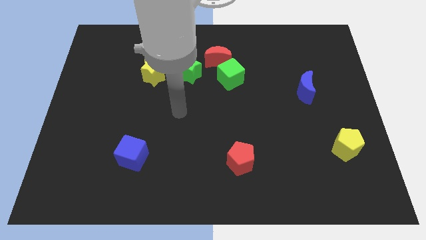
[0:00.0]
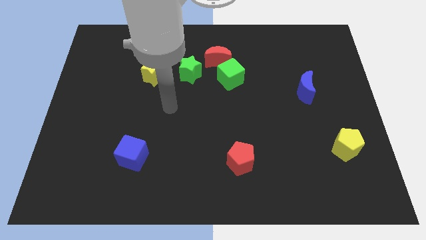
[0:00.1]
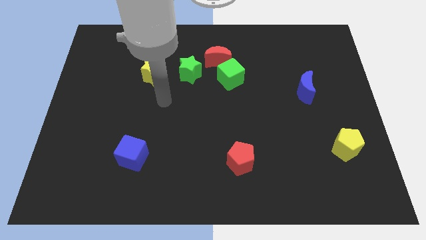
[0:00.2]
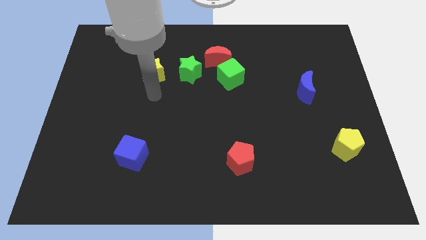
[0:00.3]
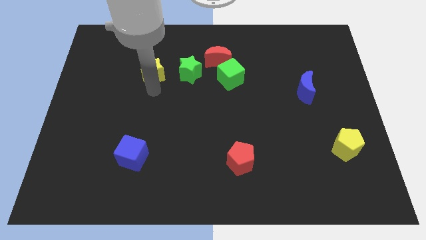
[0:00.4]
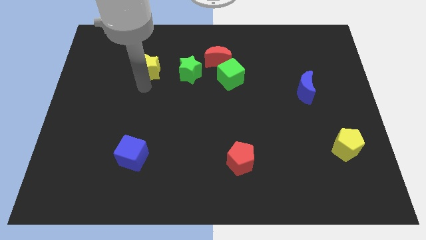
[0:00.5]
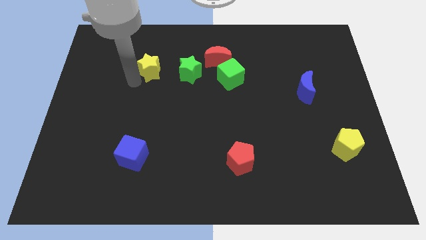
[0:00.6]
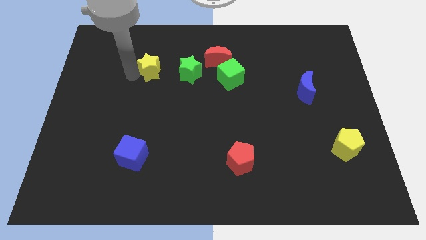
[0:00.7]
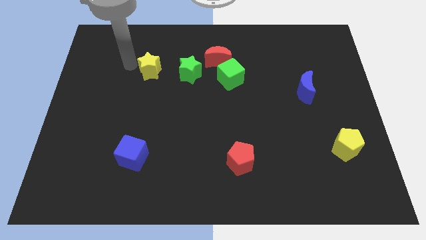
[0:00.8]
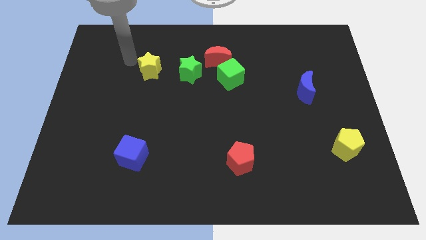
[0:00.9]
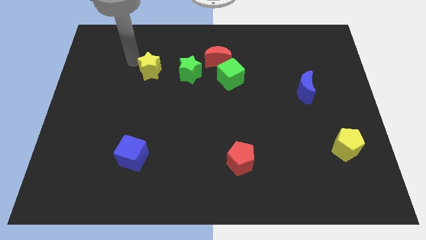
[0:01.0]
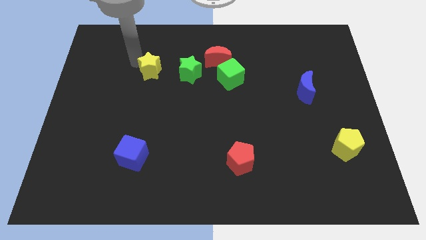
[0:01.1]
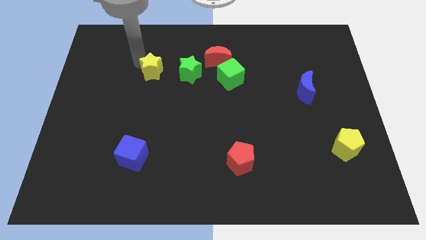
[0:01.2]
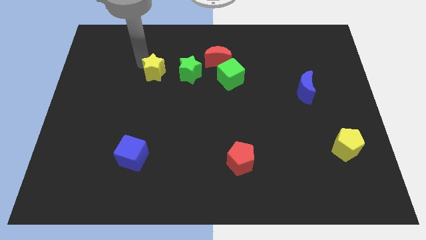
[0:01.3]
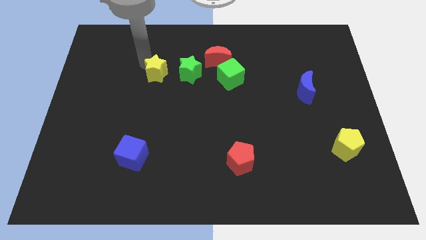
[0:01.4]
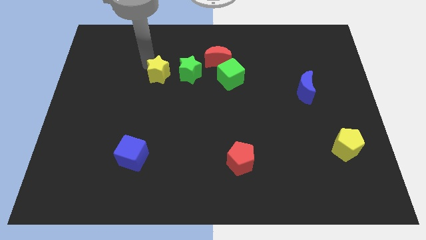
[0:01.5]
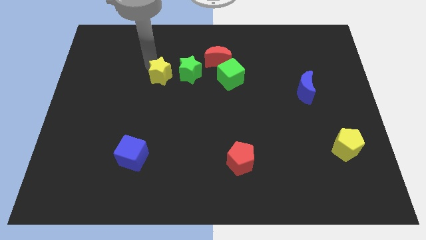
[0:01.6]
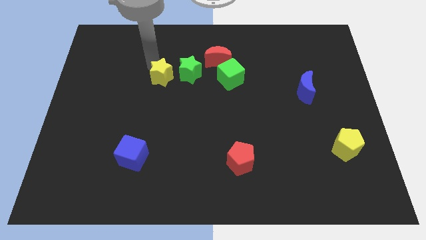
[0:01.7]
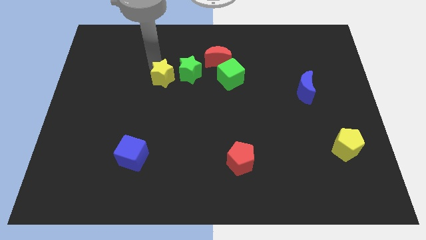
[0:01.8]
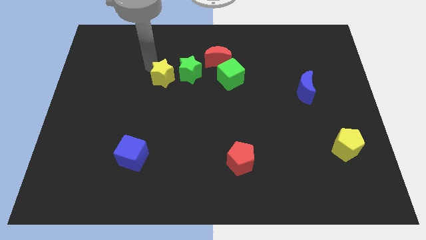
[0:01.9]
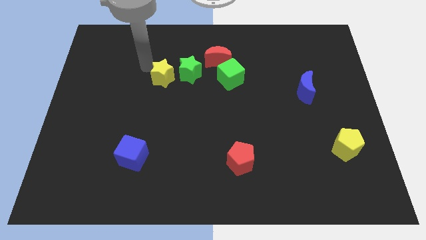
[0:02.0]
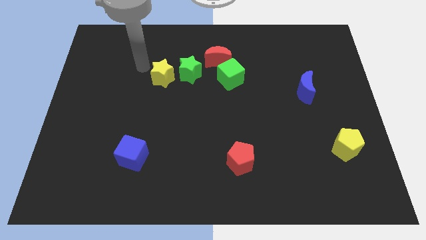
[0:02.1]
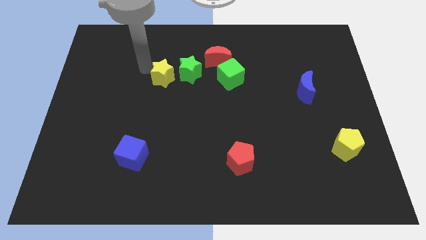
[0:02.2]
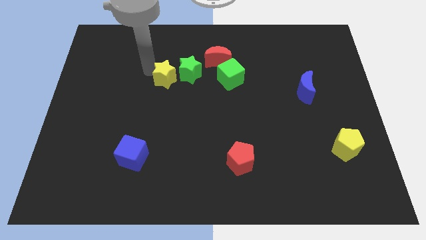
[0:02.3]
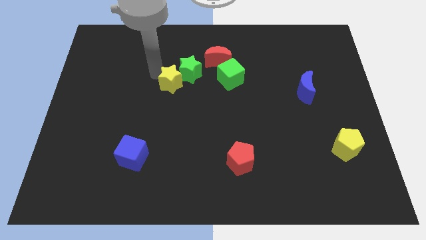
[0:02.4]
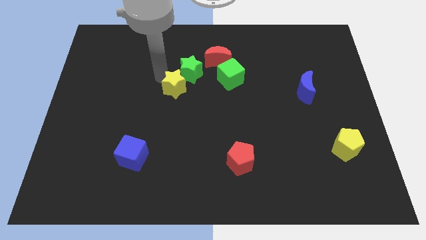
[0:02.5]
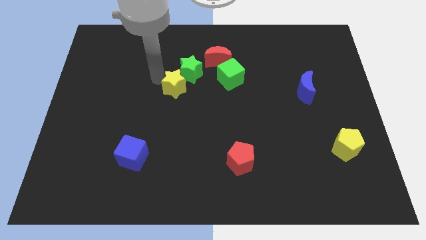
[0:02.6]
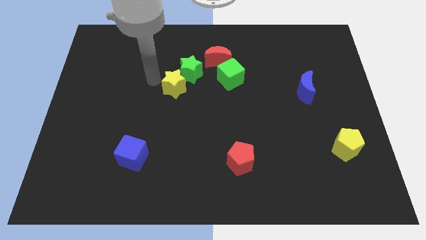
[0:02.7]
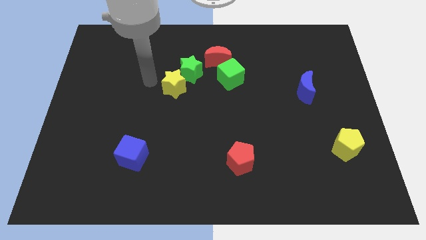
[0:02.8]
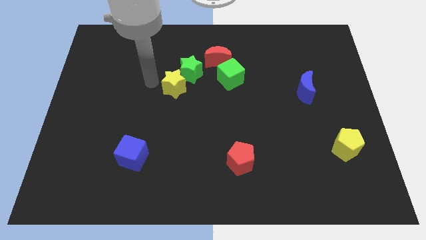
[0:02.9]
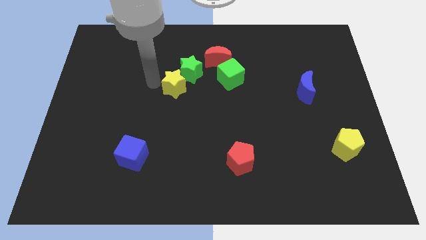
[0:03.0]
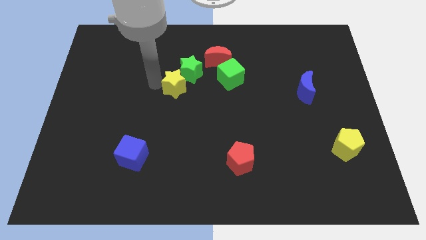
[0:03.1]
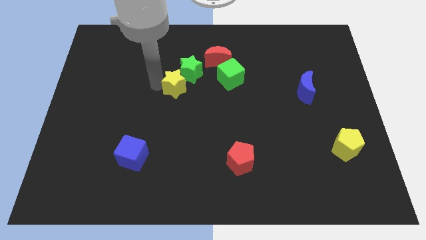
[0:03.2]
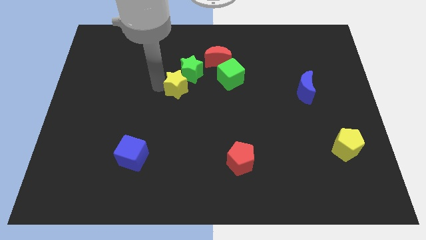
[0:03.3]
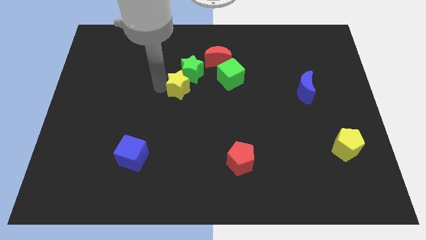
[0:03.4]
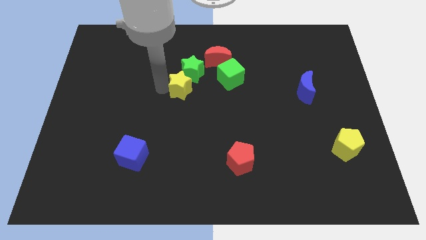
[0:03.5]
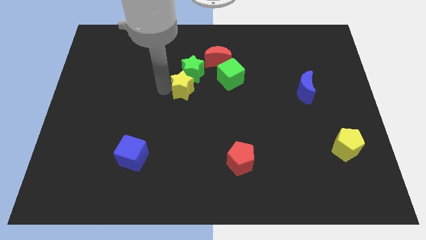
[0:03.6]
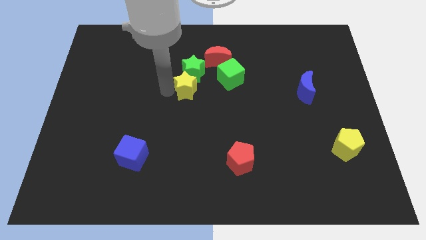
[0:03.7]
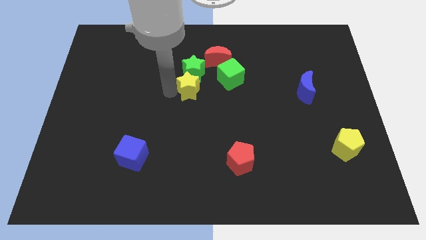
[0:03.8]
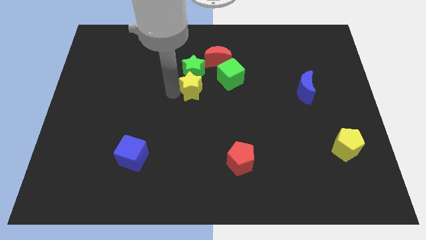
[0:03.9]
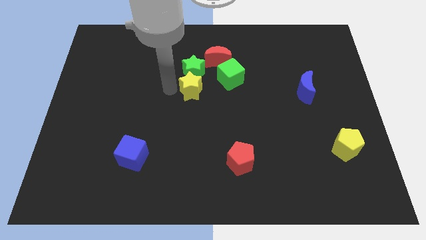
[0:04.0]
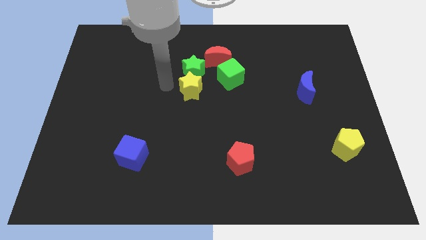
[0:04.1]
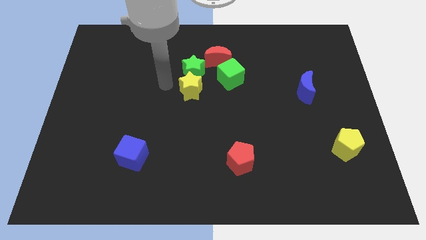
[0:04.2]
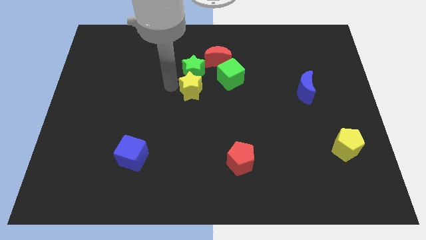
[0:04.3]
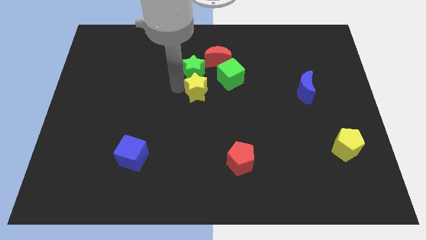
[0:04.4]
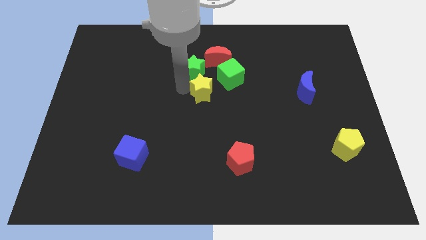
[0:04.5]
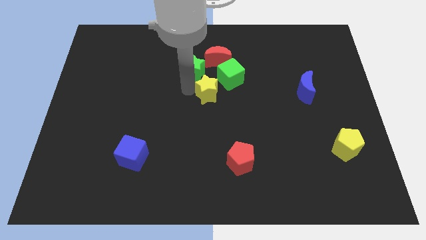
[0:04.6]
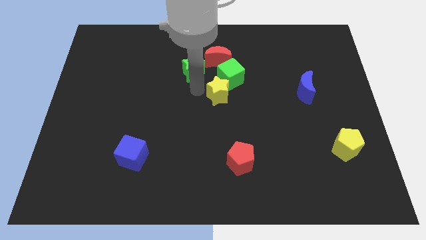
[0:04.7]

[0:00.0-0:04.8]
put the yellow star to the bottom side of the green cube

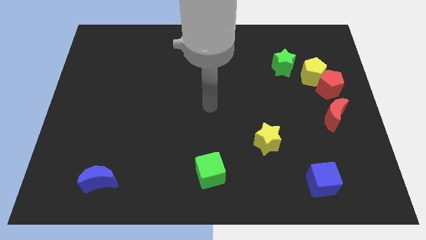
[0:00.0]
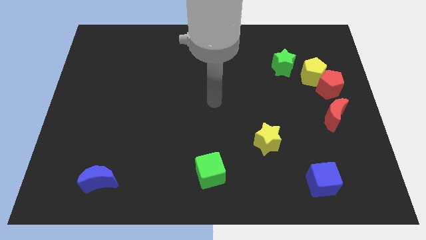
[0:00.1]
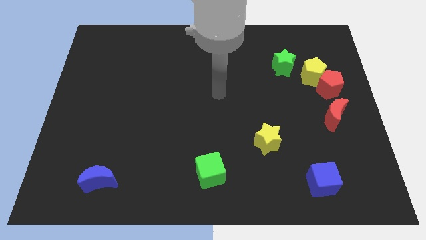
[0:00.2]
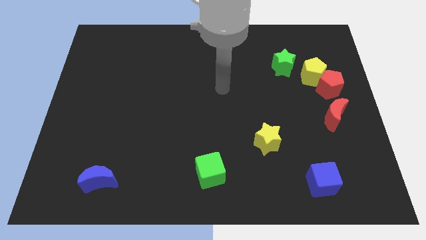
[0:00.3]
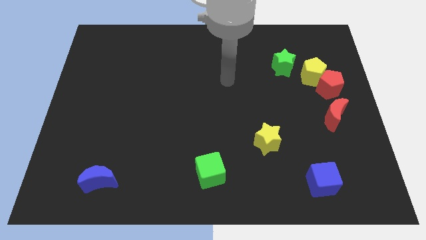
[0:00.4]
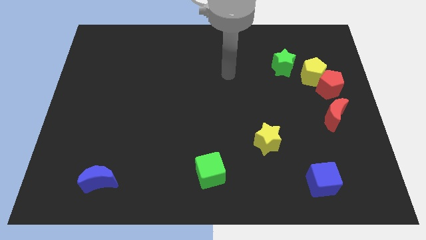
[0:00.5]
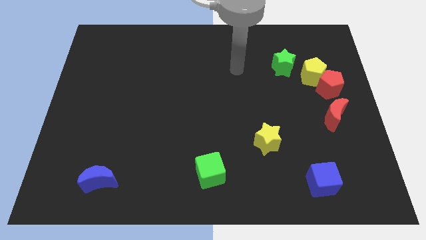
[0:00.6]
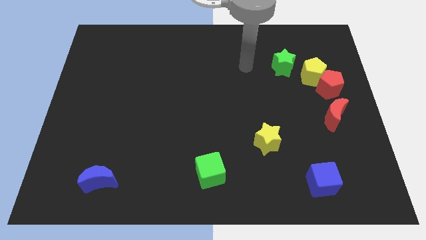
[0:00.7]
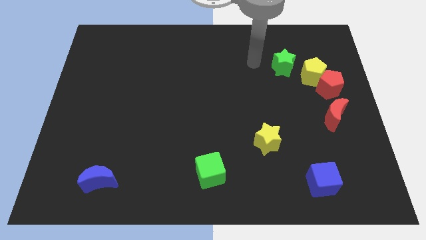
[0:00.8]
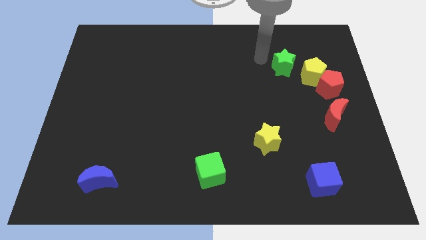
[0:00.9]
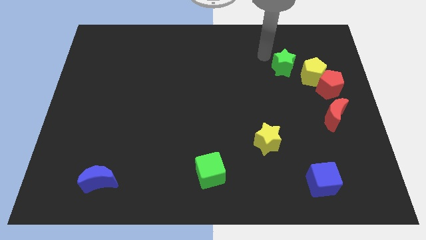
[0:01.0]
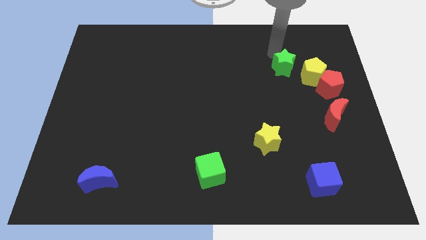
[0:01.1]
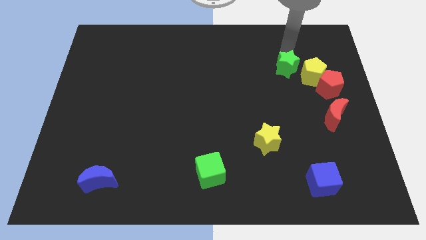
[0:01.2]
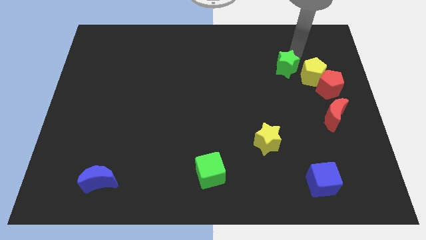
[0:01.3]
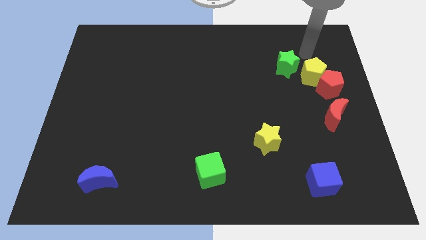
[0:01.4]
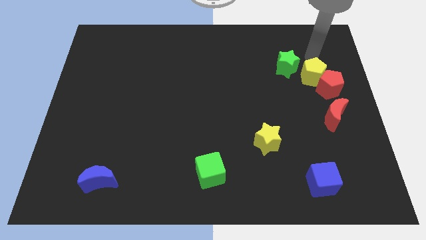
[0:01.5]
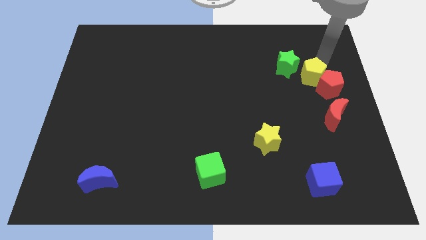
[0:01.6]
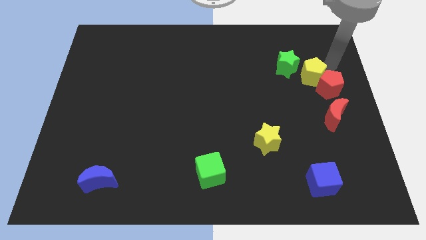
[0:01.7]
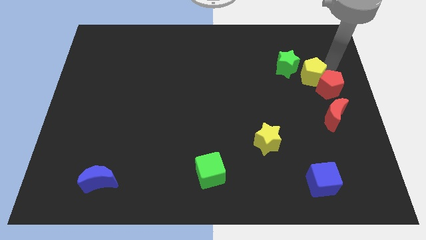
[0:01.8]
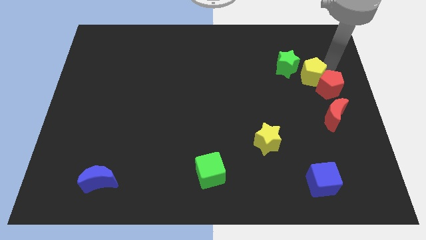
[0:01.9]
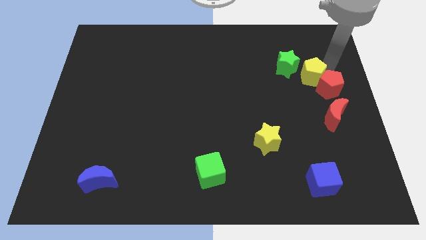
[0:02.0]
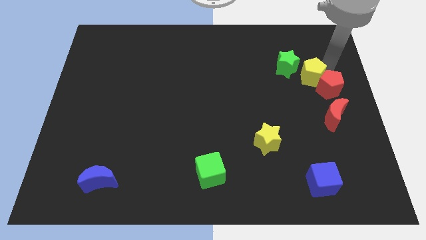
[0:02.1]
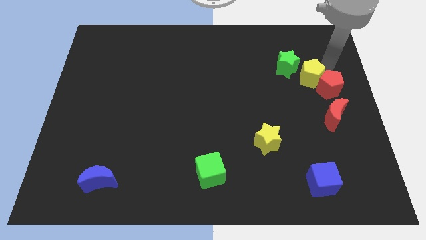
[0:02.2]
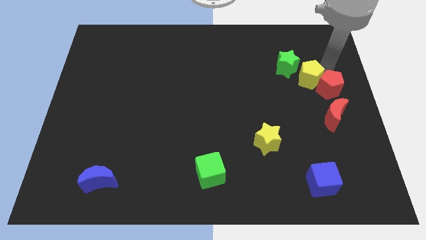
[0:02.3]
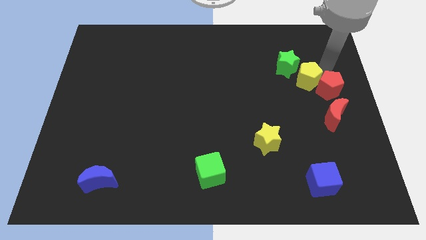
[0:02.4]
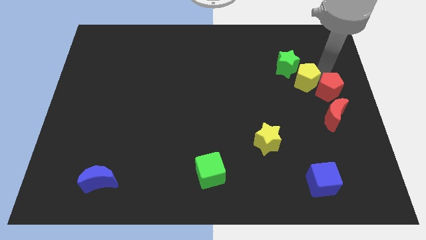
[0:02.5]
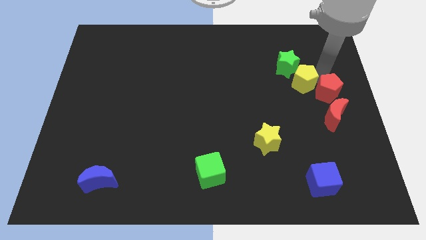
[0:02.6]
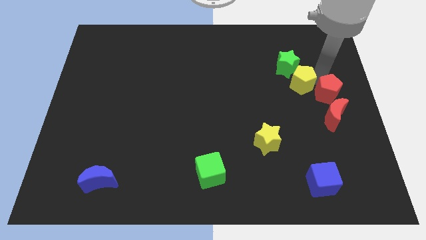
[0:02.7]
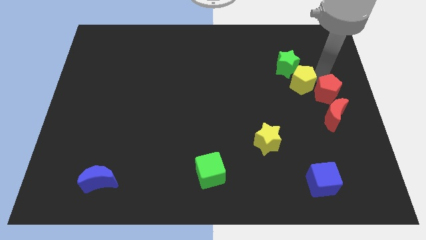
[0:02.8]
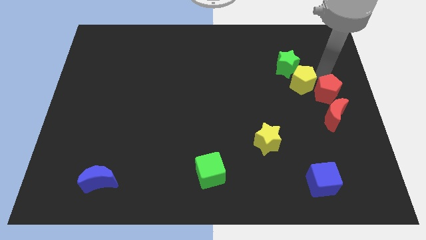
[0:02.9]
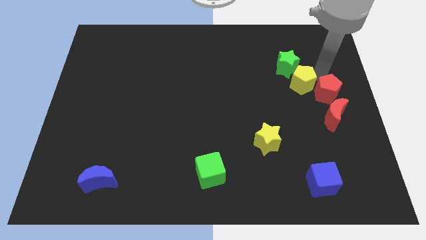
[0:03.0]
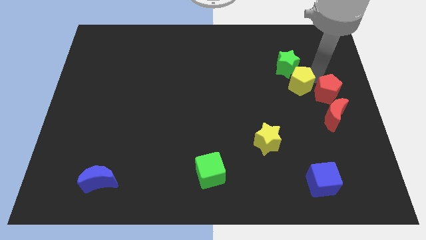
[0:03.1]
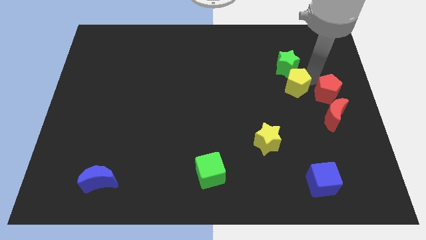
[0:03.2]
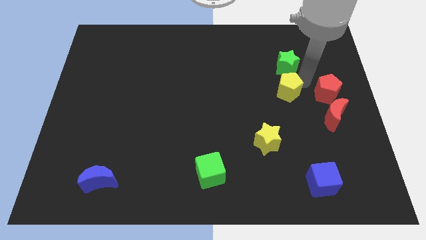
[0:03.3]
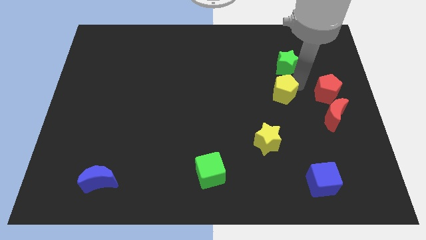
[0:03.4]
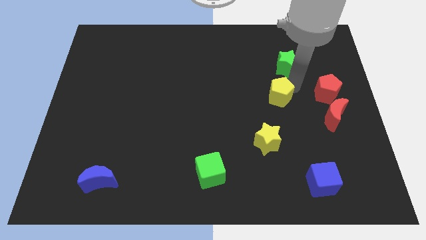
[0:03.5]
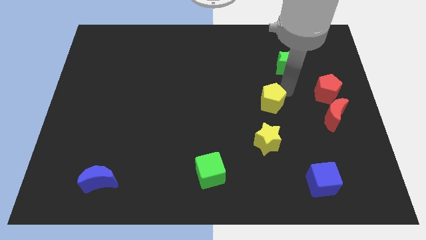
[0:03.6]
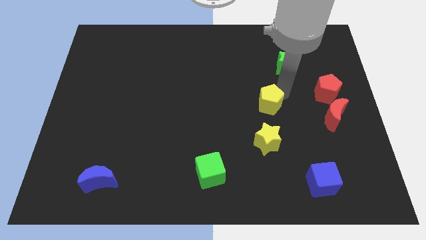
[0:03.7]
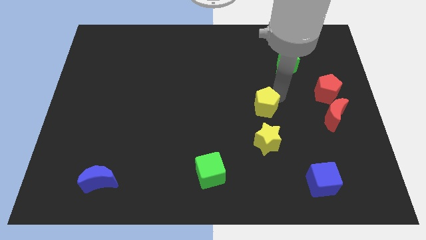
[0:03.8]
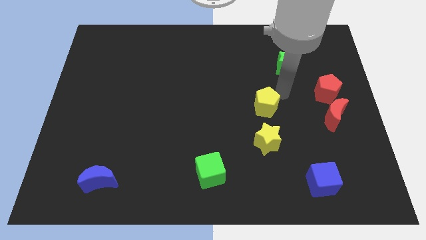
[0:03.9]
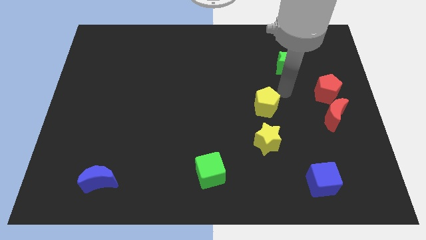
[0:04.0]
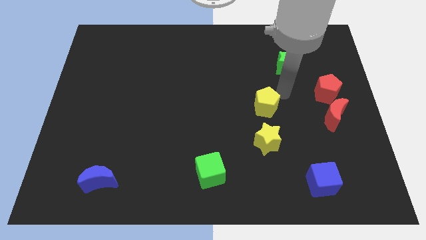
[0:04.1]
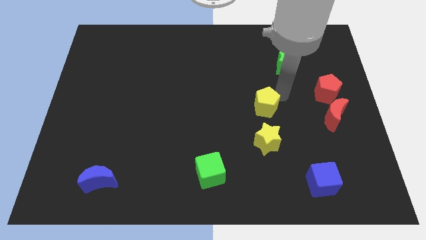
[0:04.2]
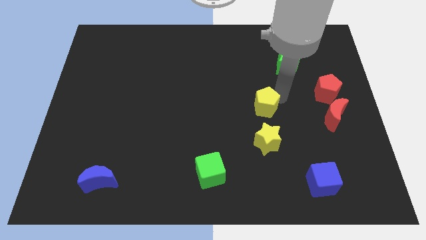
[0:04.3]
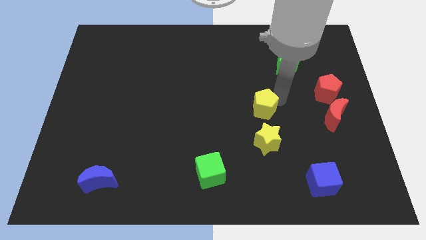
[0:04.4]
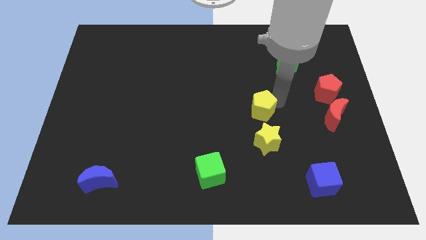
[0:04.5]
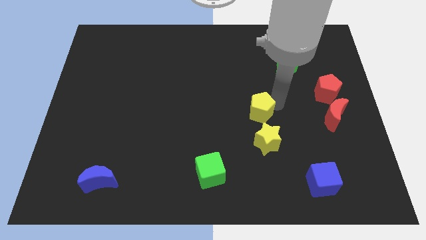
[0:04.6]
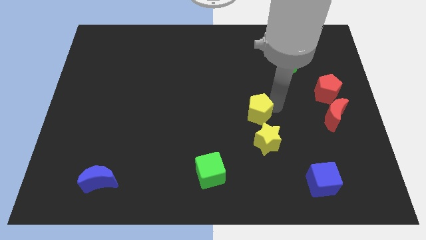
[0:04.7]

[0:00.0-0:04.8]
move the yellow pentagon to the top left side of the yellow star
